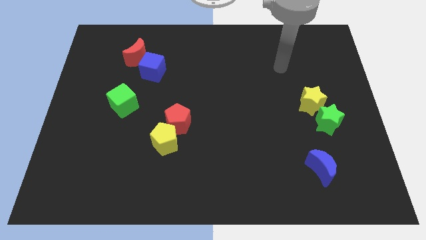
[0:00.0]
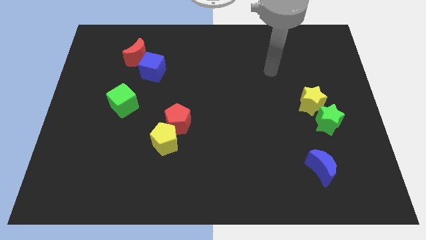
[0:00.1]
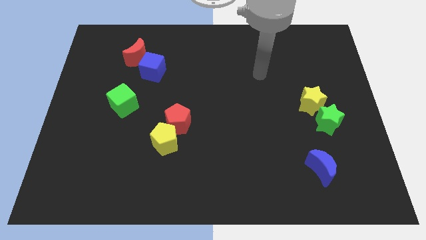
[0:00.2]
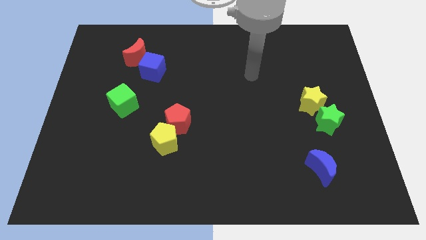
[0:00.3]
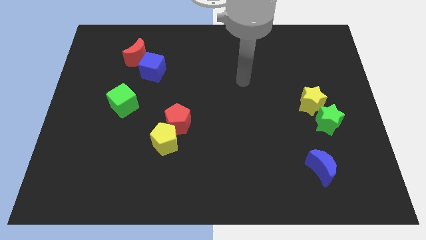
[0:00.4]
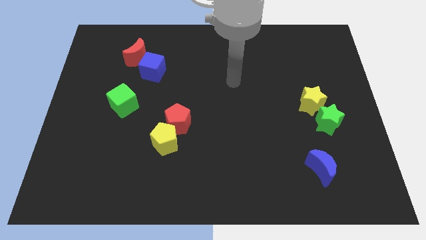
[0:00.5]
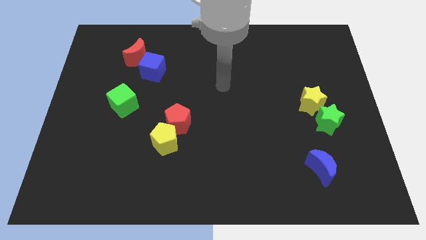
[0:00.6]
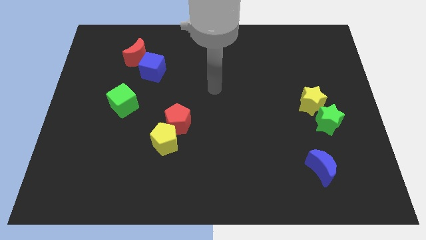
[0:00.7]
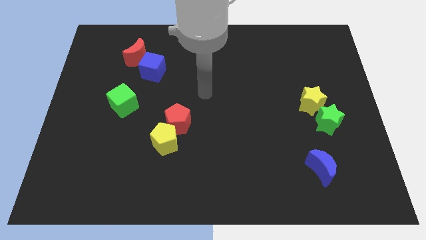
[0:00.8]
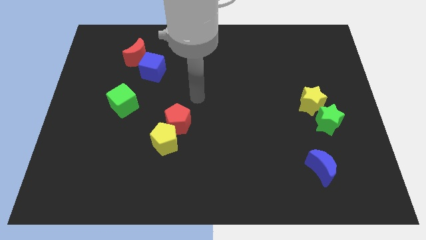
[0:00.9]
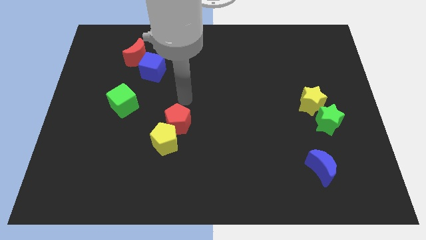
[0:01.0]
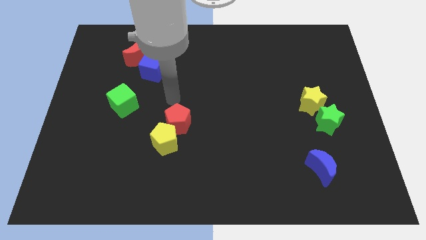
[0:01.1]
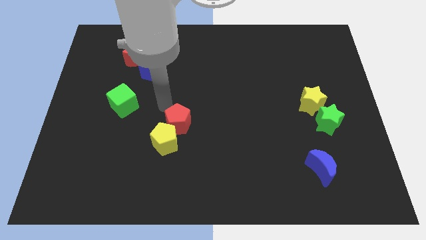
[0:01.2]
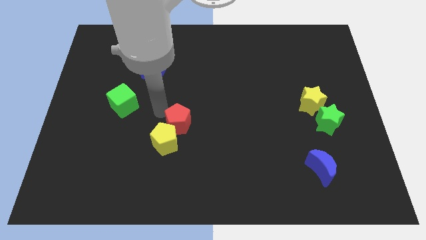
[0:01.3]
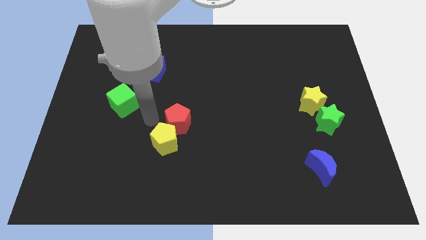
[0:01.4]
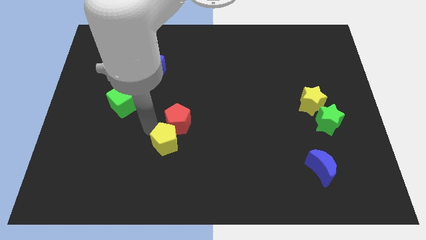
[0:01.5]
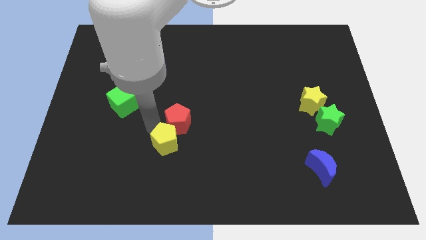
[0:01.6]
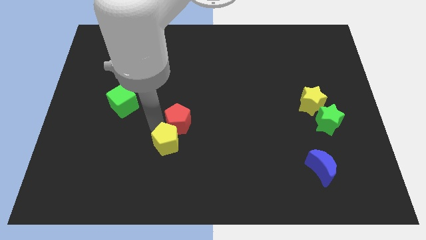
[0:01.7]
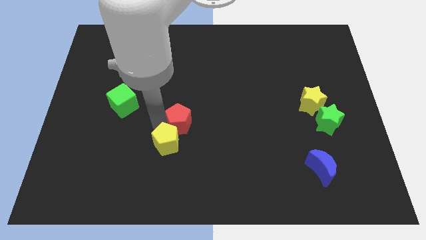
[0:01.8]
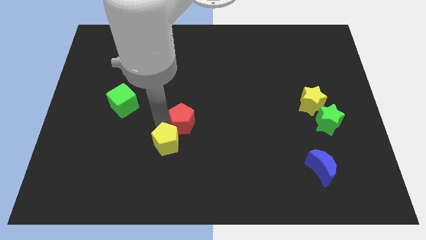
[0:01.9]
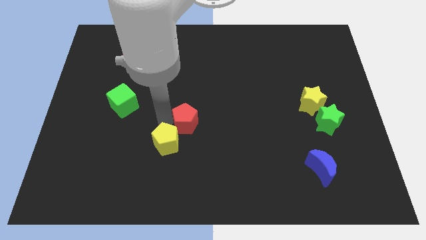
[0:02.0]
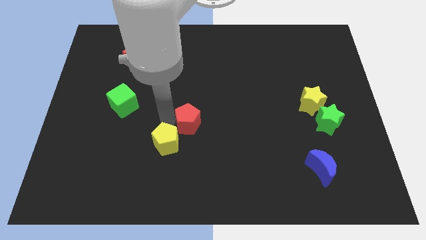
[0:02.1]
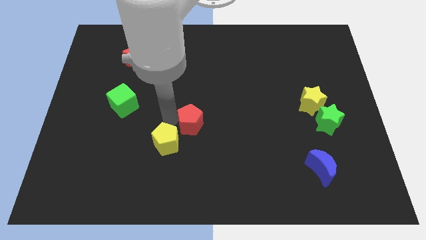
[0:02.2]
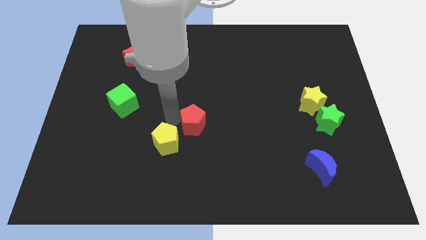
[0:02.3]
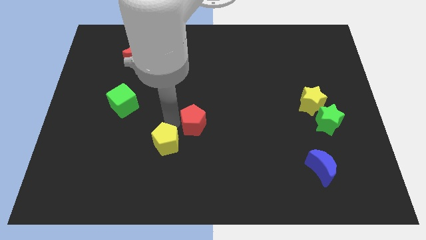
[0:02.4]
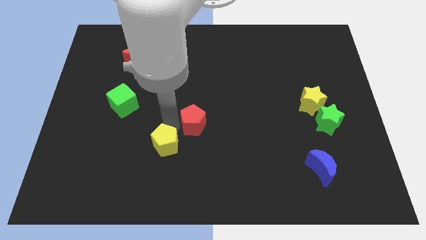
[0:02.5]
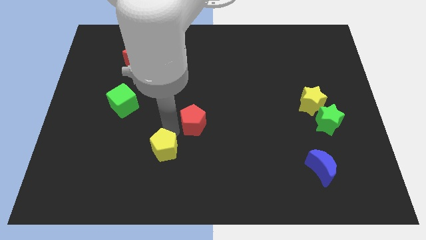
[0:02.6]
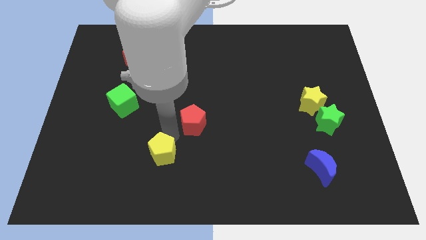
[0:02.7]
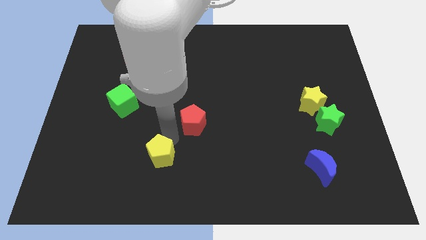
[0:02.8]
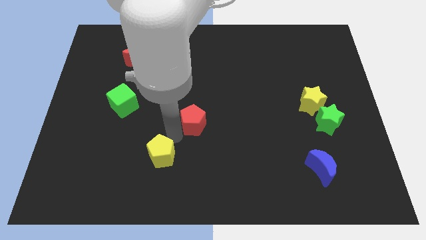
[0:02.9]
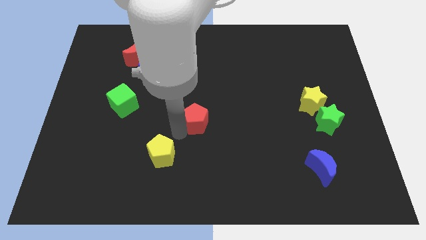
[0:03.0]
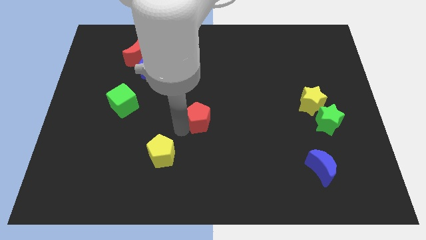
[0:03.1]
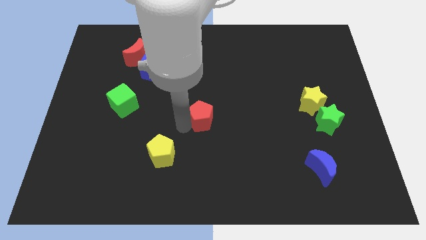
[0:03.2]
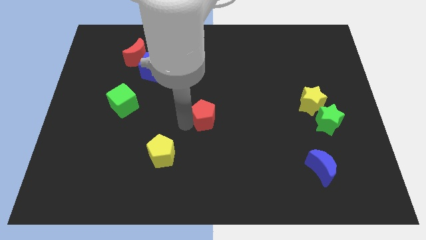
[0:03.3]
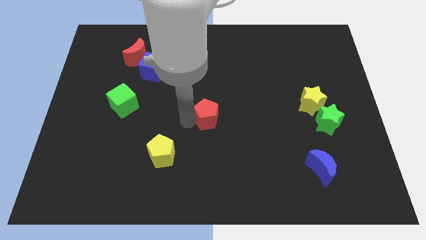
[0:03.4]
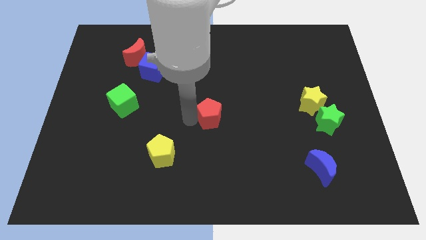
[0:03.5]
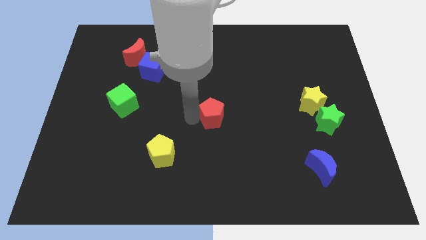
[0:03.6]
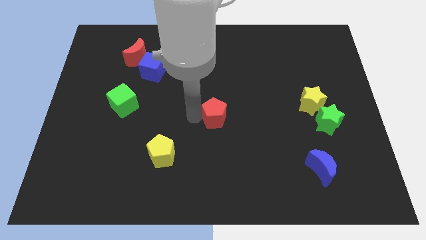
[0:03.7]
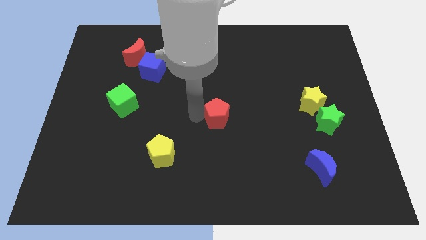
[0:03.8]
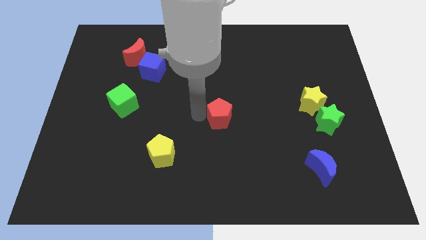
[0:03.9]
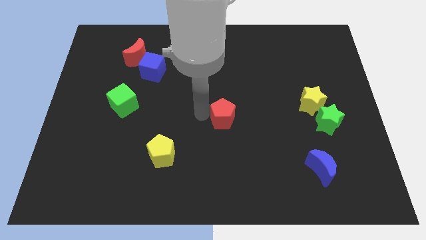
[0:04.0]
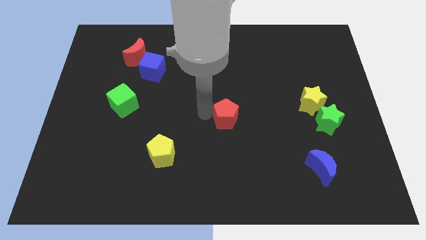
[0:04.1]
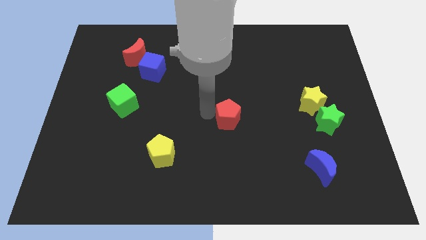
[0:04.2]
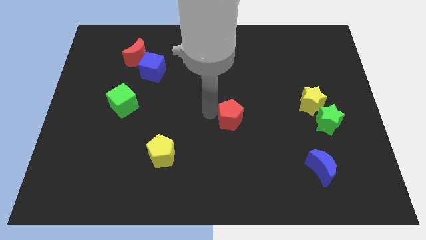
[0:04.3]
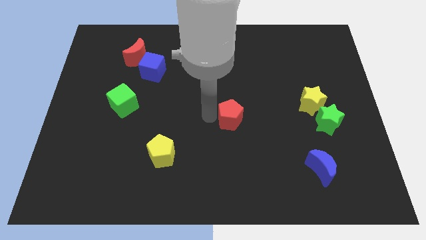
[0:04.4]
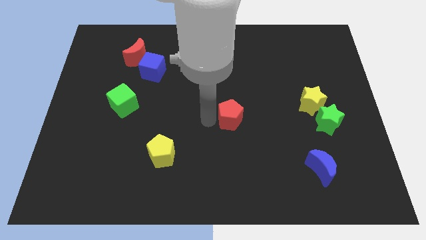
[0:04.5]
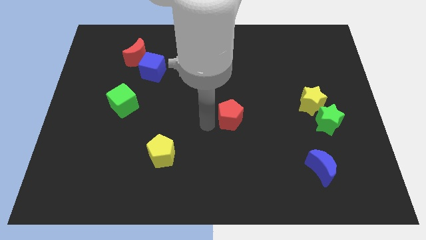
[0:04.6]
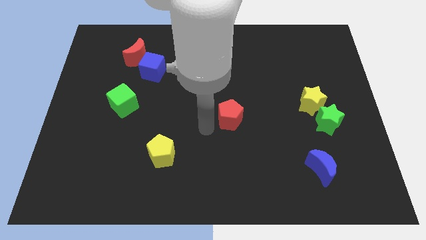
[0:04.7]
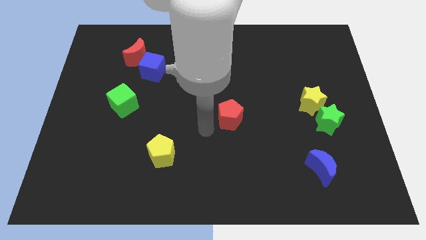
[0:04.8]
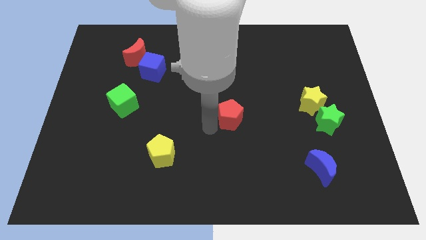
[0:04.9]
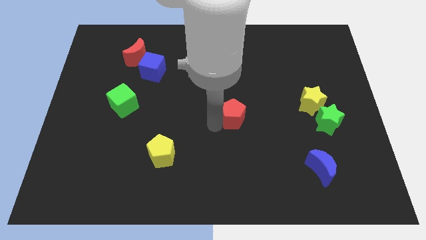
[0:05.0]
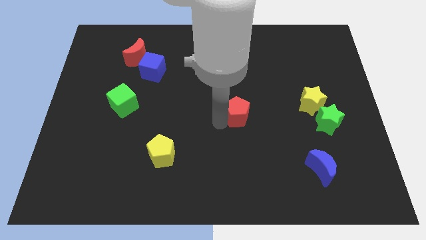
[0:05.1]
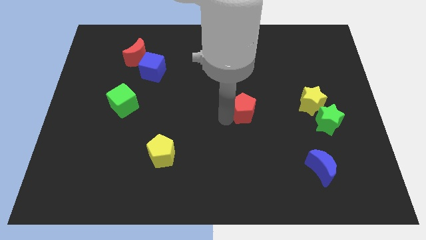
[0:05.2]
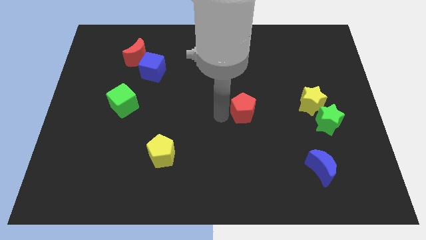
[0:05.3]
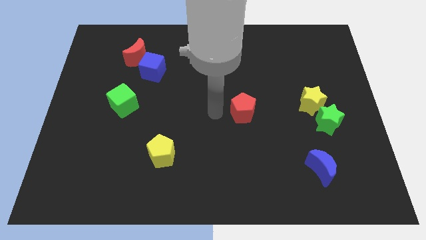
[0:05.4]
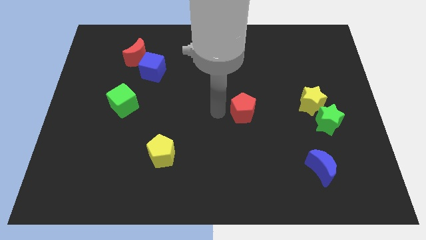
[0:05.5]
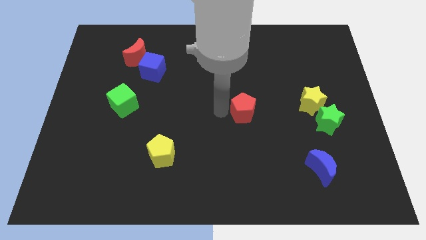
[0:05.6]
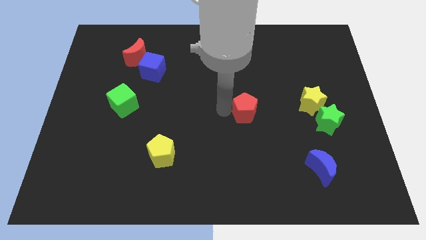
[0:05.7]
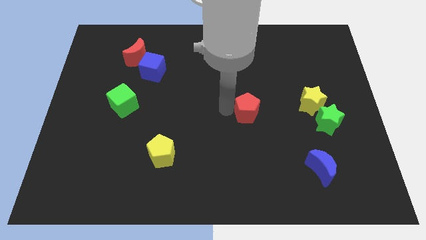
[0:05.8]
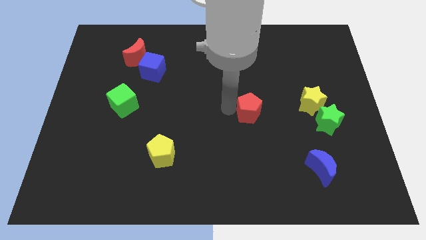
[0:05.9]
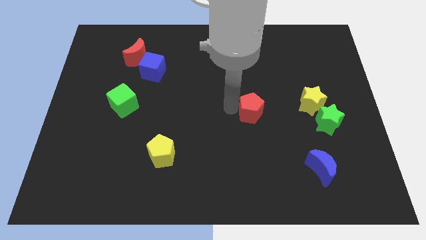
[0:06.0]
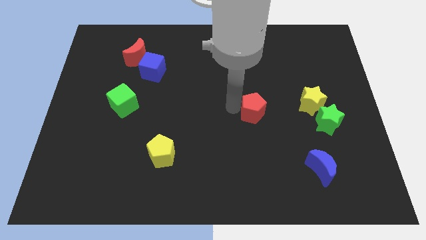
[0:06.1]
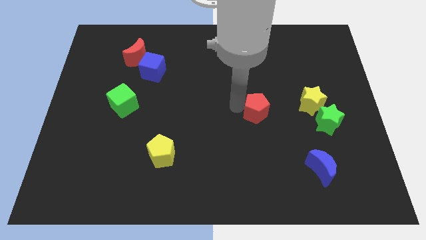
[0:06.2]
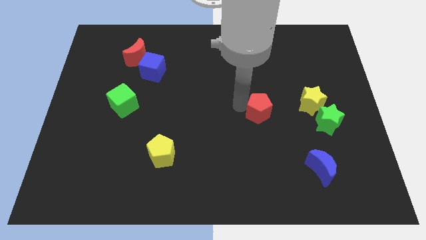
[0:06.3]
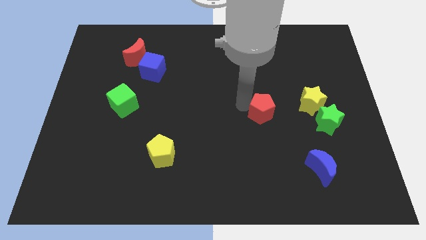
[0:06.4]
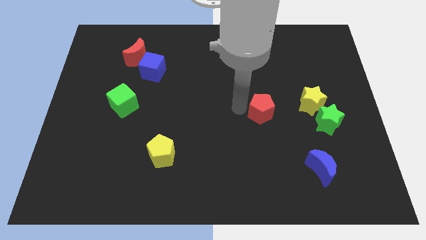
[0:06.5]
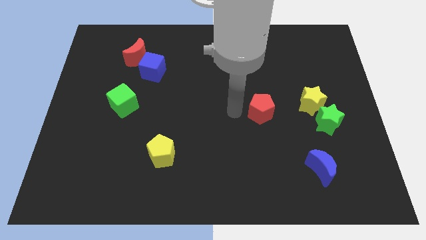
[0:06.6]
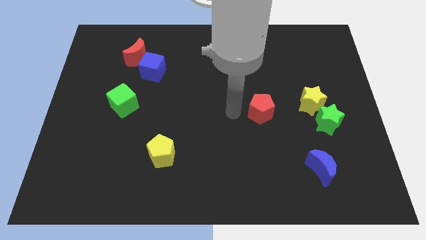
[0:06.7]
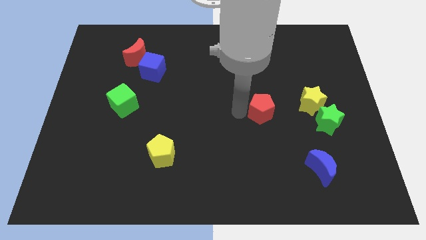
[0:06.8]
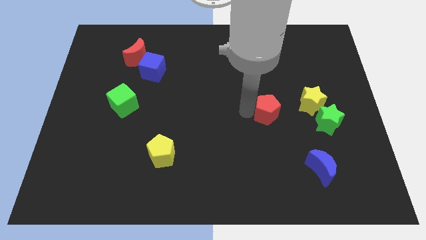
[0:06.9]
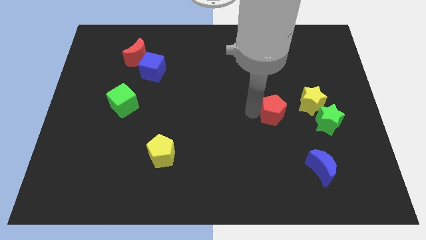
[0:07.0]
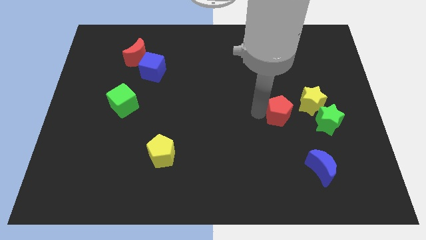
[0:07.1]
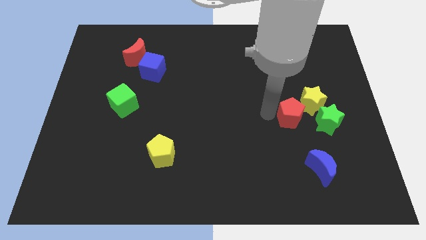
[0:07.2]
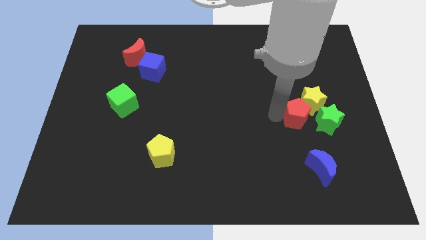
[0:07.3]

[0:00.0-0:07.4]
put the red pentagon towards the yellow star

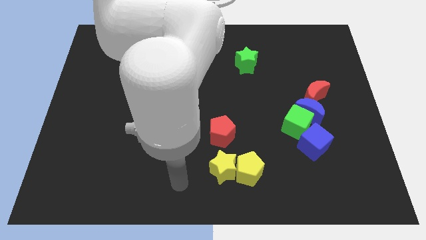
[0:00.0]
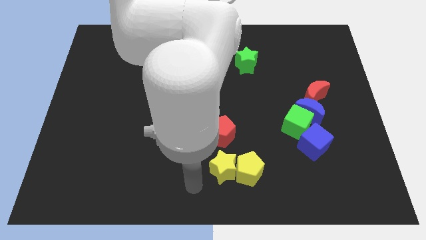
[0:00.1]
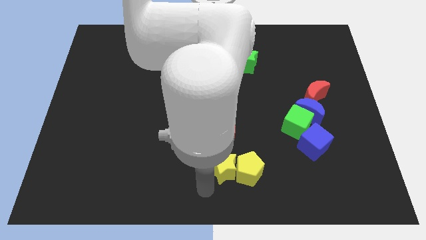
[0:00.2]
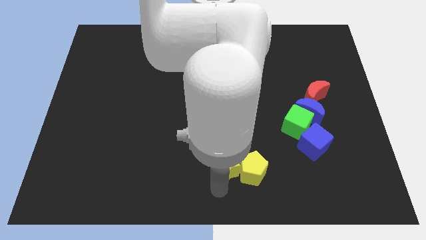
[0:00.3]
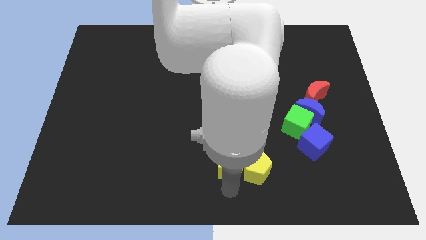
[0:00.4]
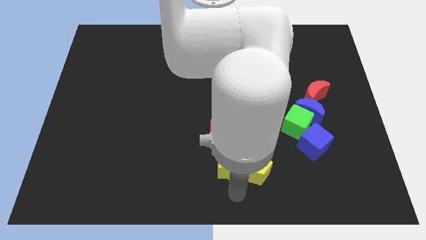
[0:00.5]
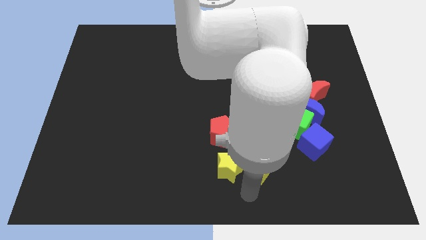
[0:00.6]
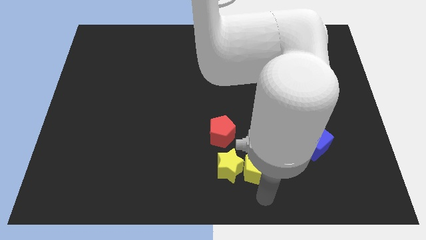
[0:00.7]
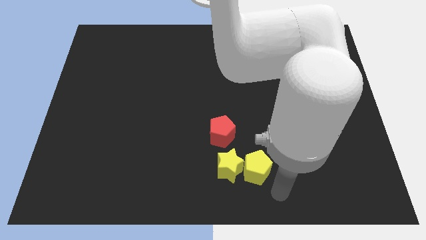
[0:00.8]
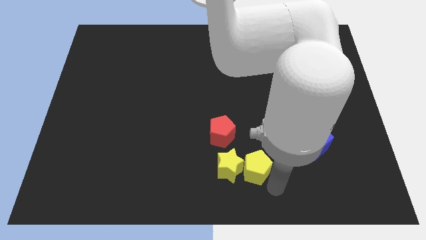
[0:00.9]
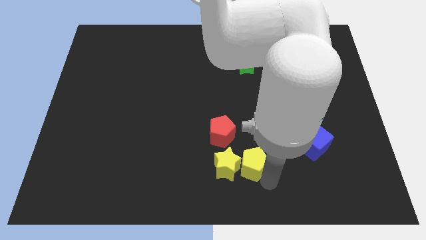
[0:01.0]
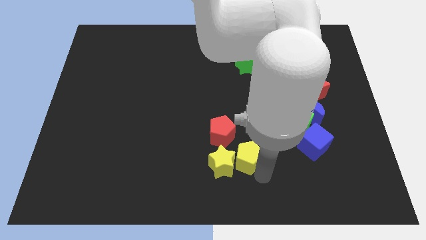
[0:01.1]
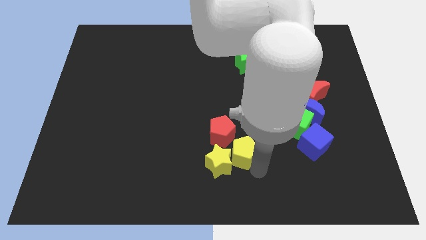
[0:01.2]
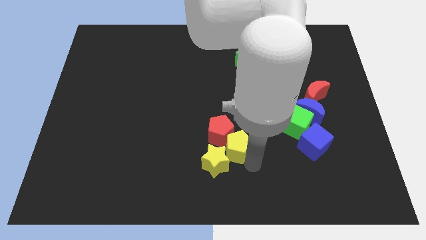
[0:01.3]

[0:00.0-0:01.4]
put the yellow pentagon towards the red pentagon
